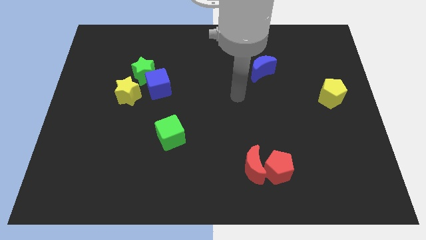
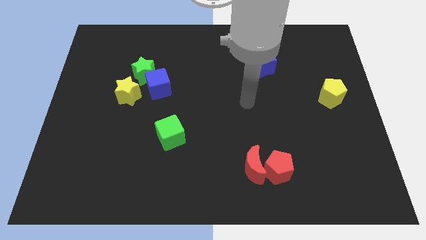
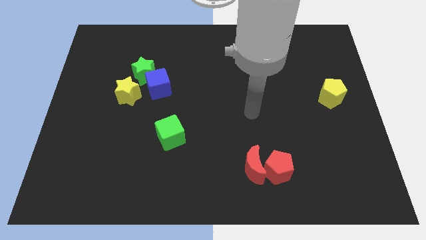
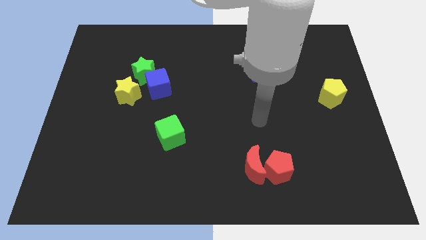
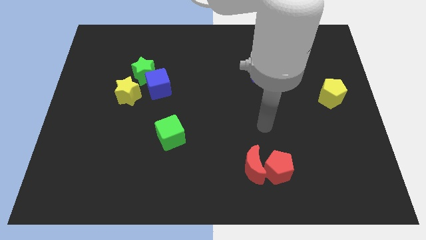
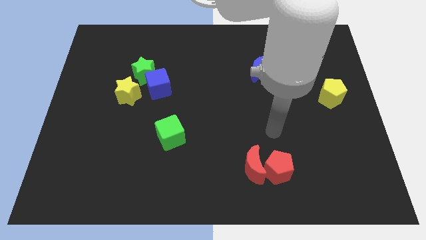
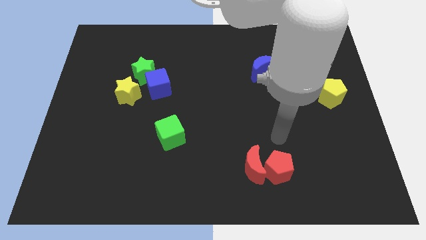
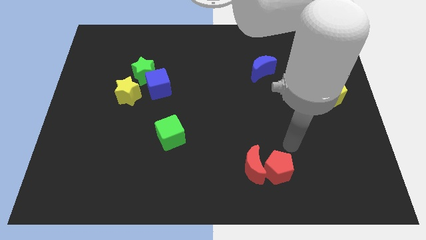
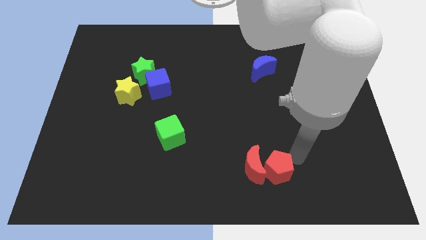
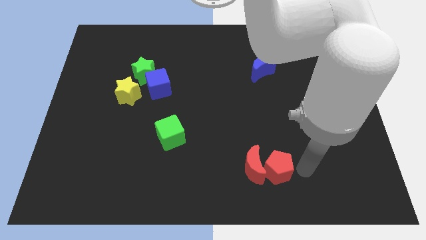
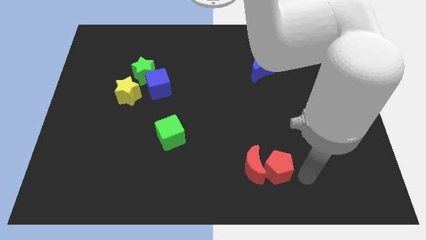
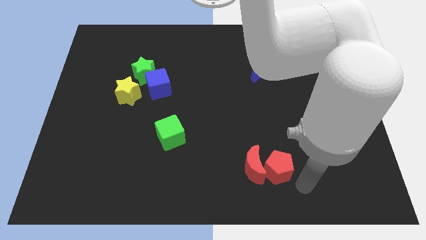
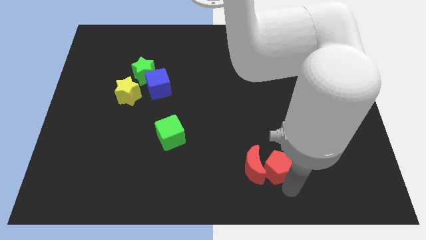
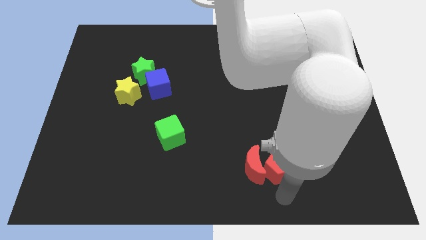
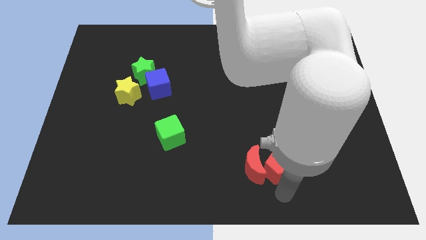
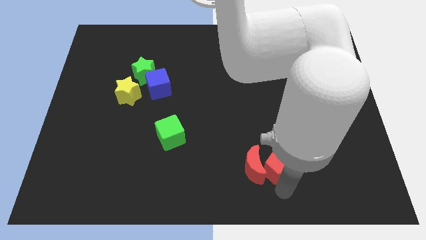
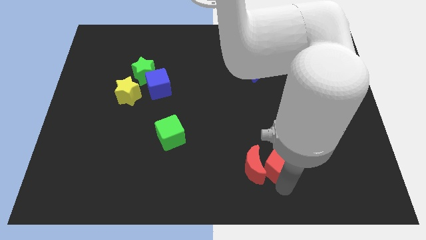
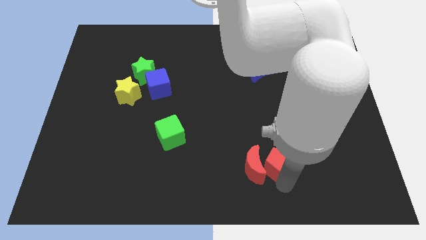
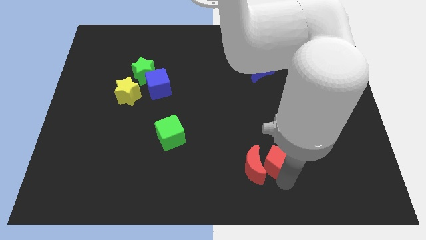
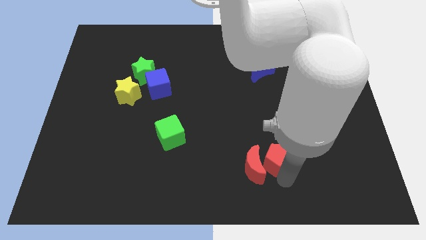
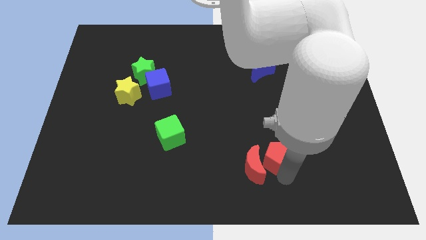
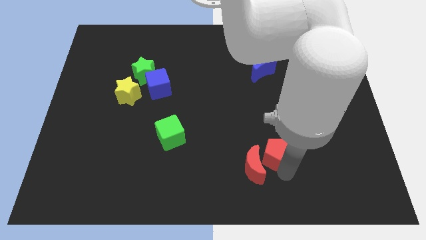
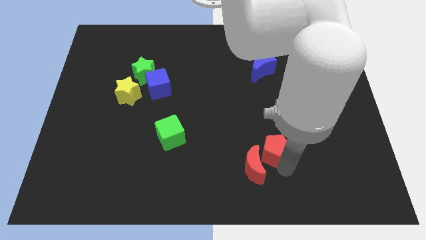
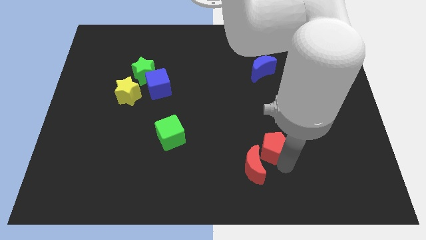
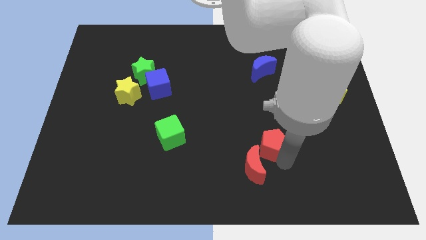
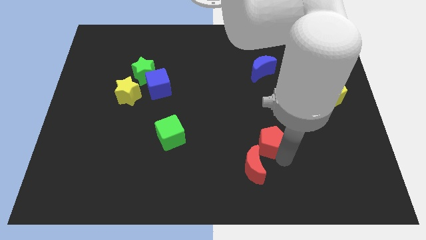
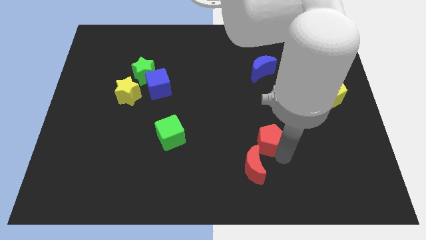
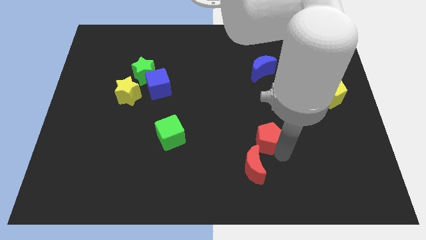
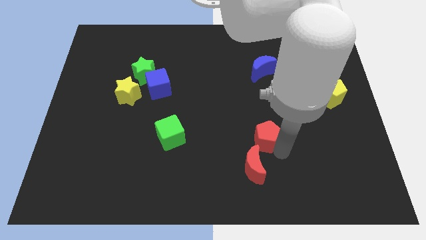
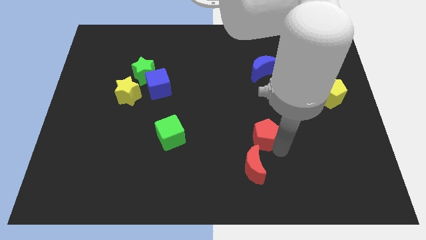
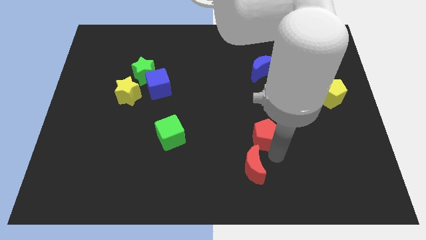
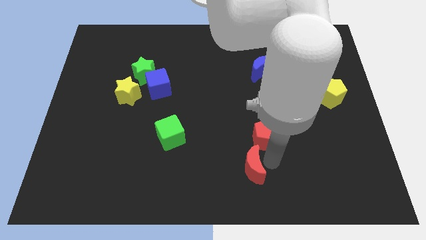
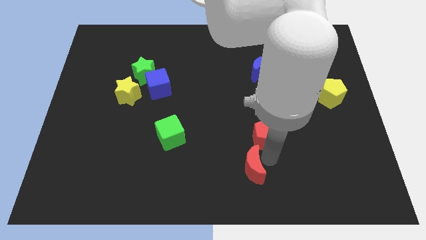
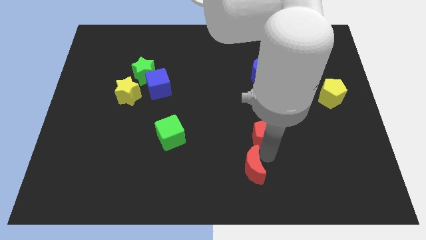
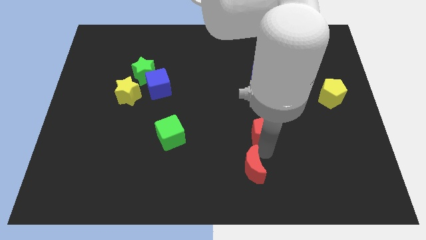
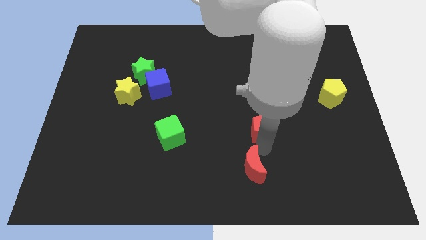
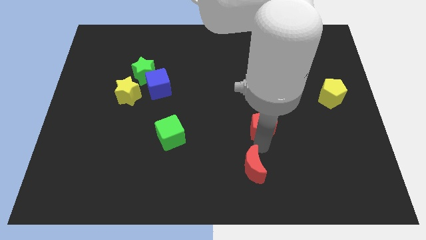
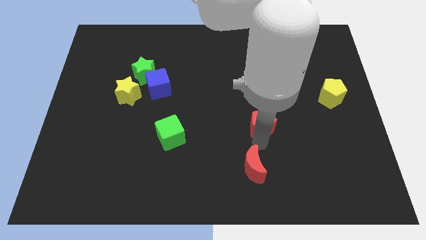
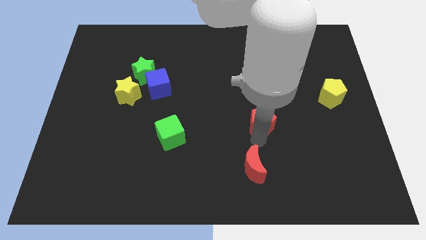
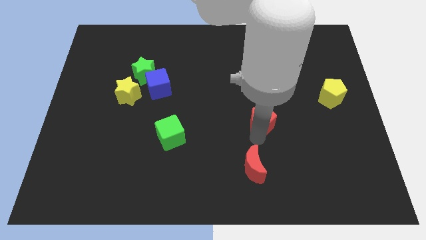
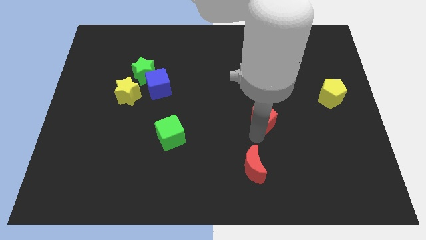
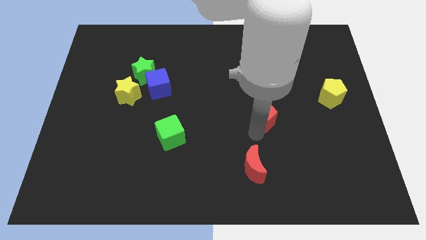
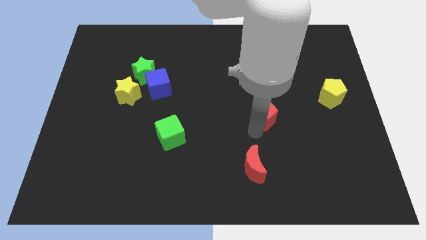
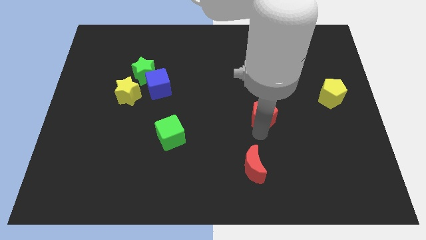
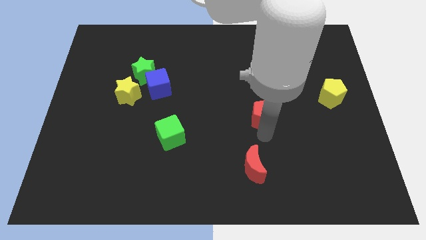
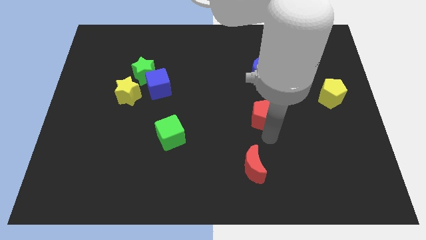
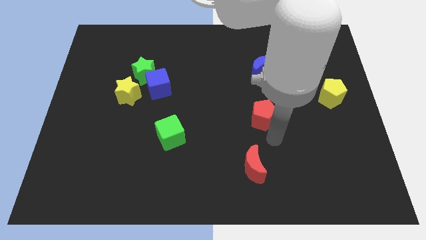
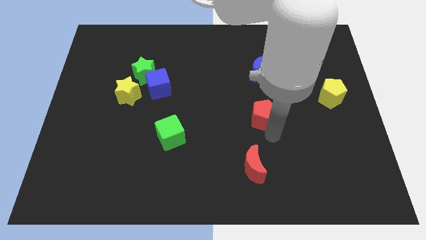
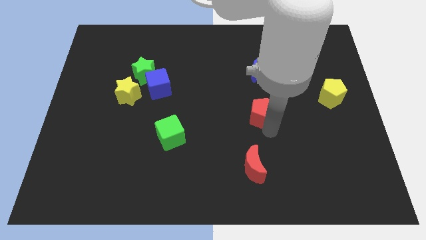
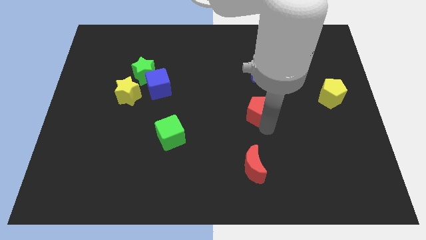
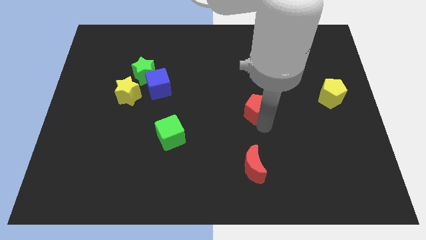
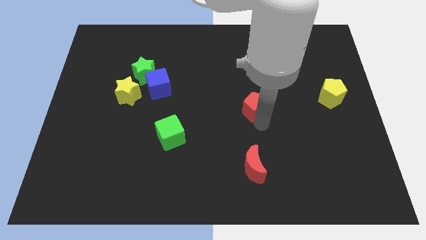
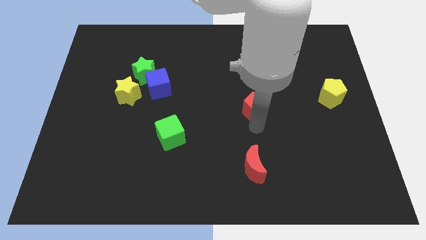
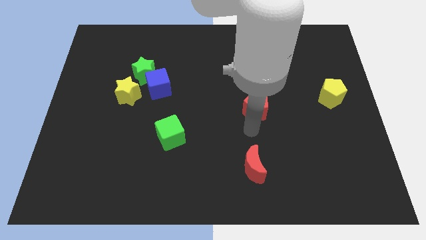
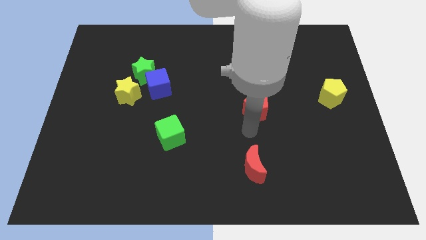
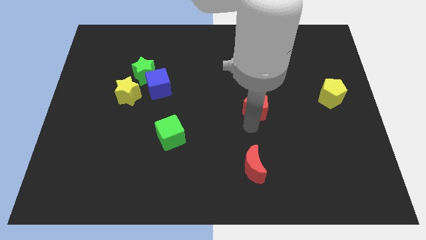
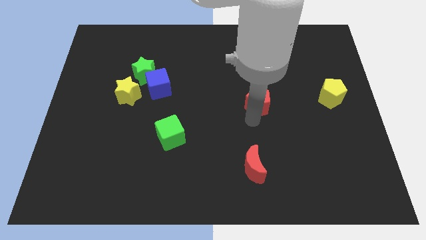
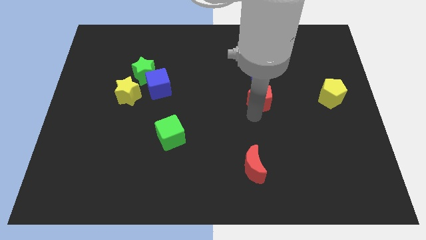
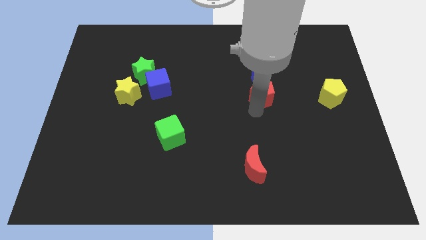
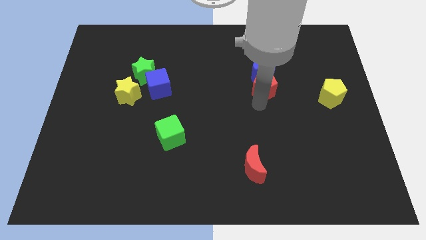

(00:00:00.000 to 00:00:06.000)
put the red pentagon to the blue moon
